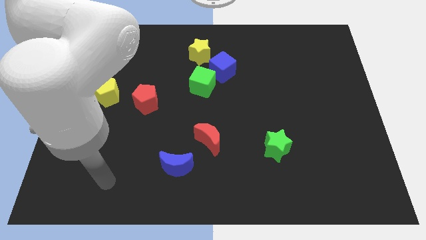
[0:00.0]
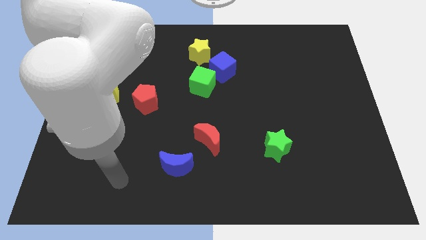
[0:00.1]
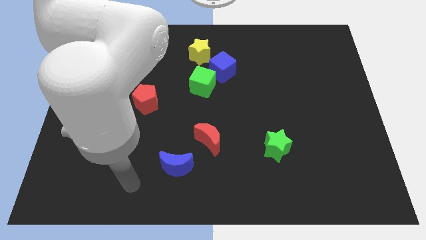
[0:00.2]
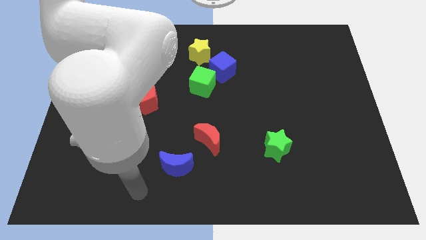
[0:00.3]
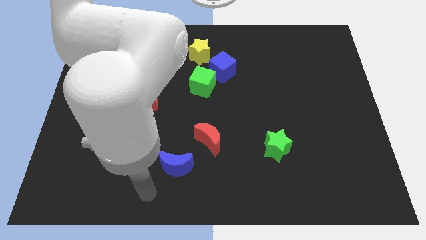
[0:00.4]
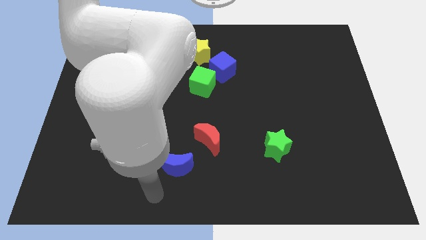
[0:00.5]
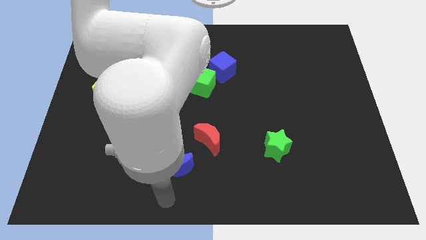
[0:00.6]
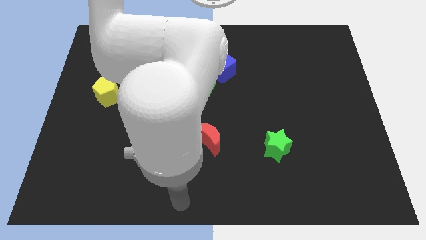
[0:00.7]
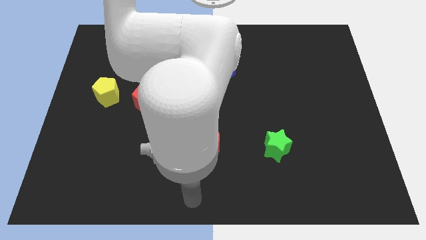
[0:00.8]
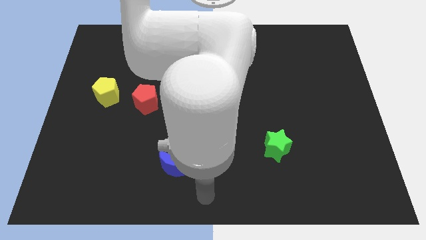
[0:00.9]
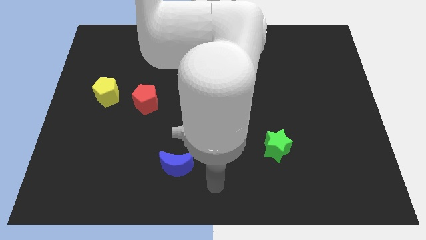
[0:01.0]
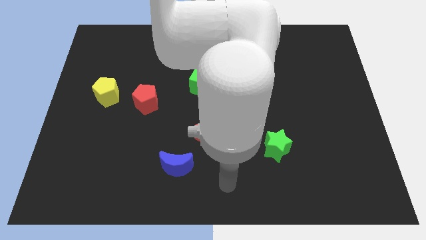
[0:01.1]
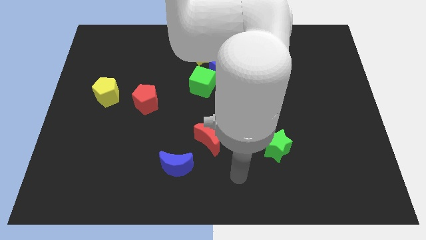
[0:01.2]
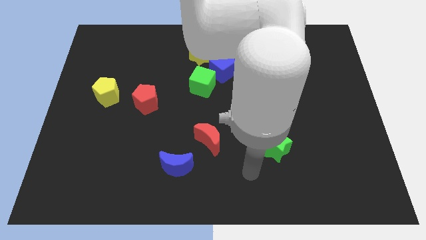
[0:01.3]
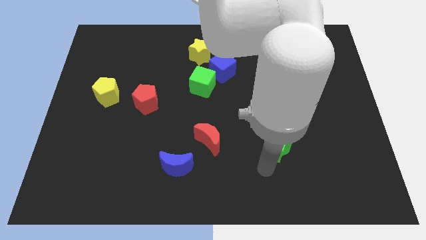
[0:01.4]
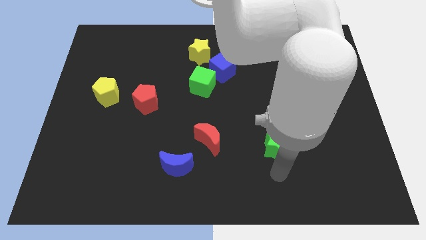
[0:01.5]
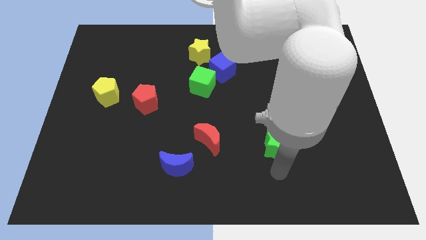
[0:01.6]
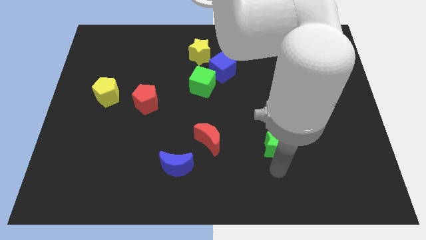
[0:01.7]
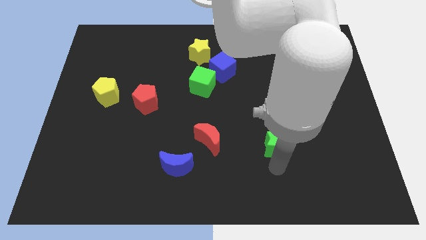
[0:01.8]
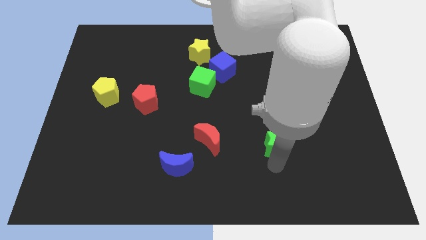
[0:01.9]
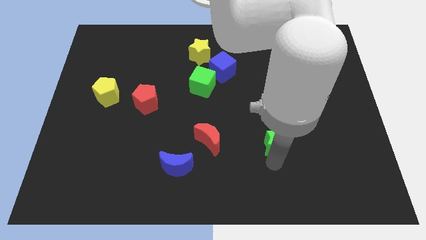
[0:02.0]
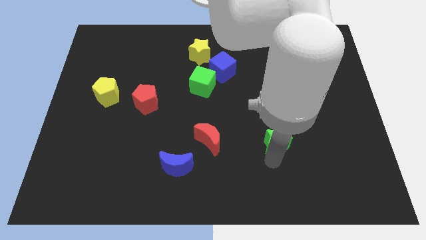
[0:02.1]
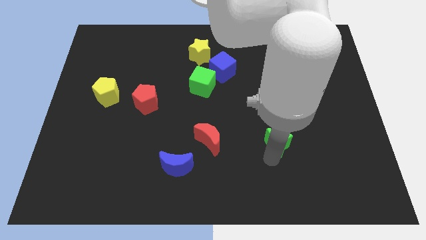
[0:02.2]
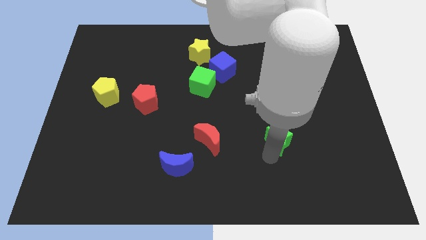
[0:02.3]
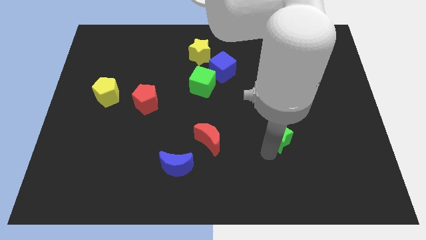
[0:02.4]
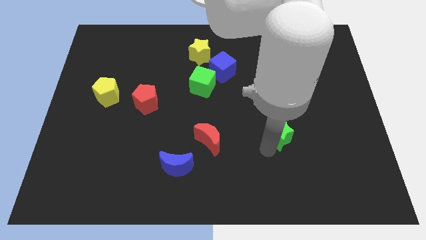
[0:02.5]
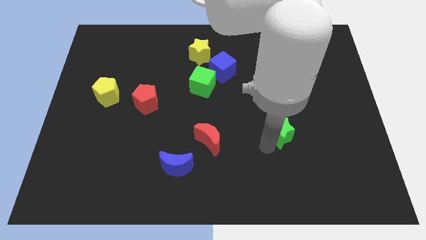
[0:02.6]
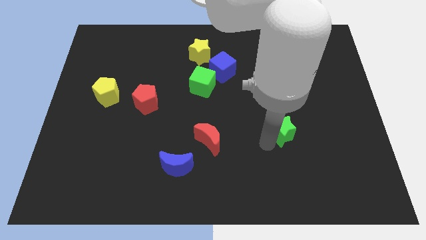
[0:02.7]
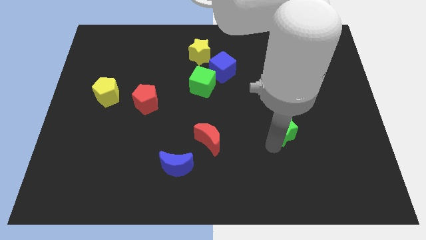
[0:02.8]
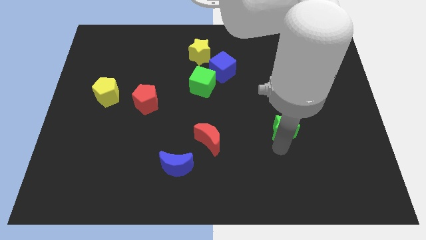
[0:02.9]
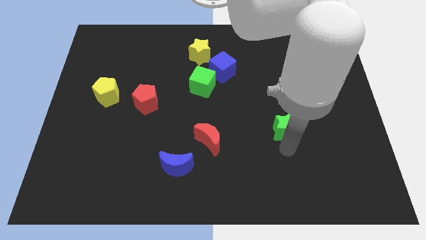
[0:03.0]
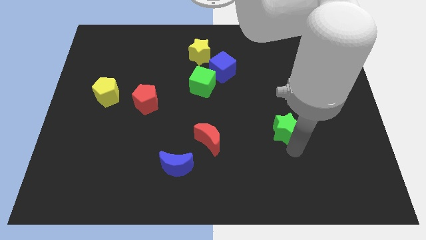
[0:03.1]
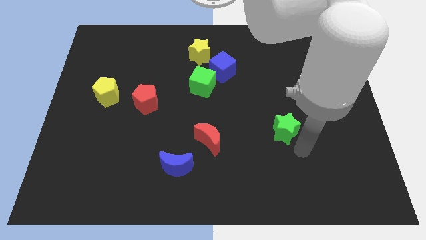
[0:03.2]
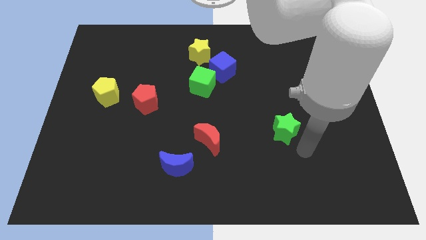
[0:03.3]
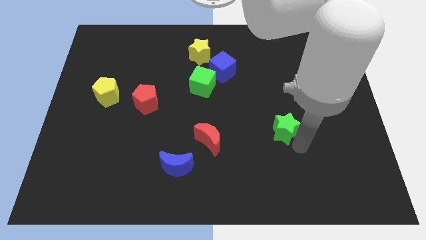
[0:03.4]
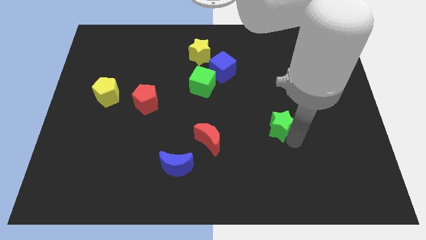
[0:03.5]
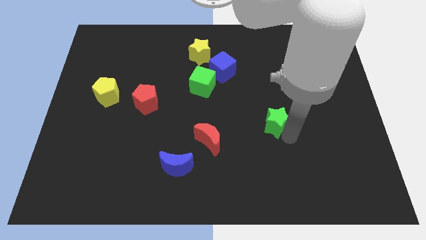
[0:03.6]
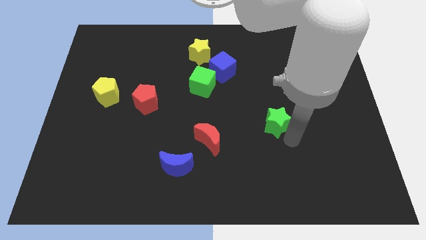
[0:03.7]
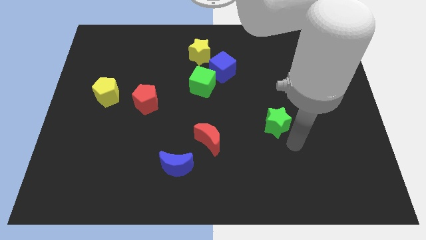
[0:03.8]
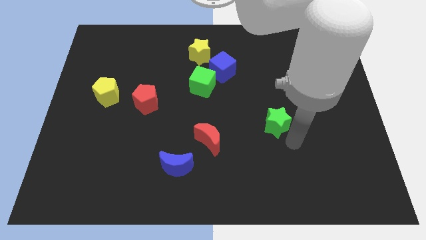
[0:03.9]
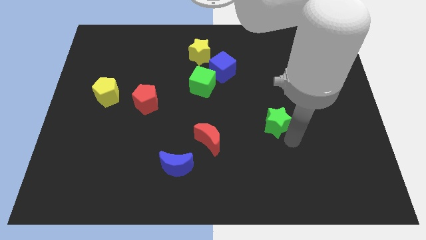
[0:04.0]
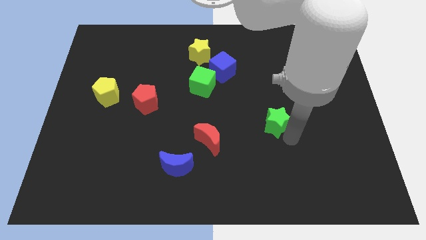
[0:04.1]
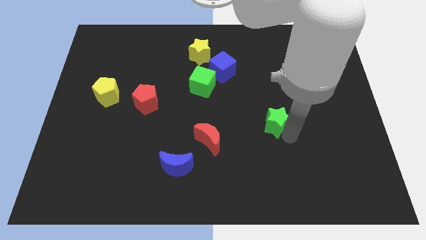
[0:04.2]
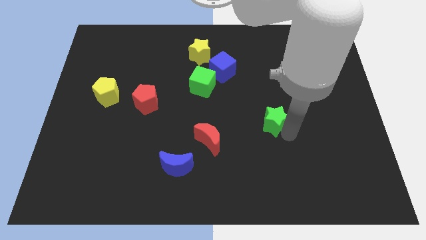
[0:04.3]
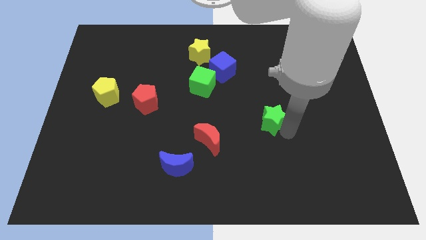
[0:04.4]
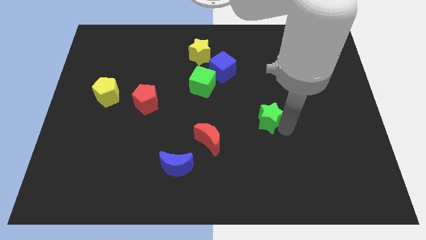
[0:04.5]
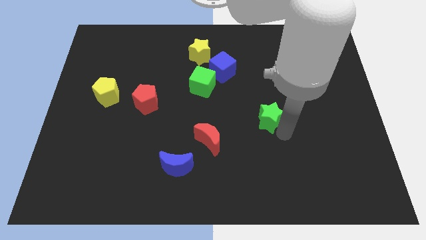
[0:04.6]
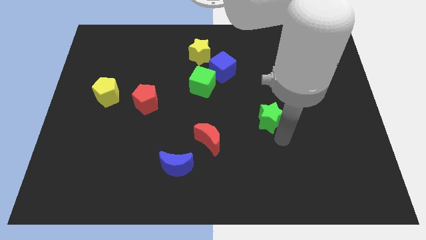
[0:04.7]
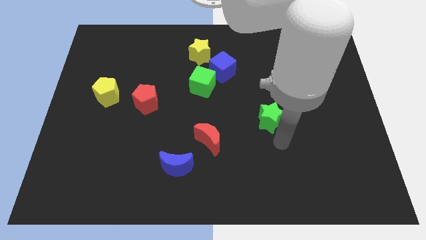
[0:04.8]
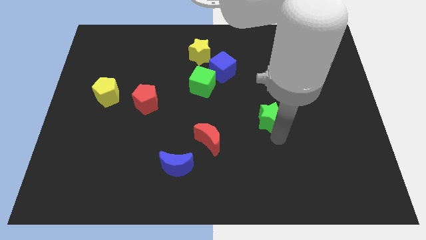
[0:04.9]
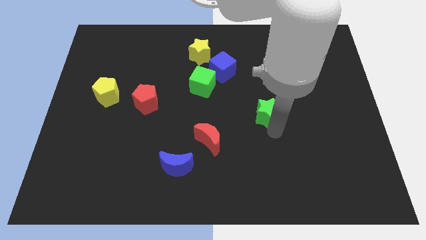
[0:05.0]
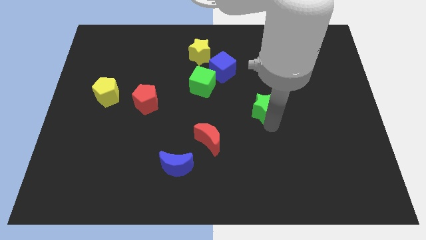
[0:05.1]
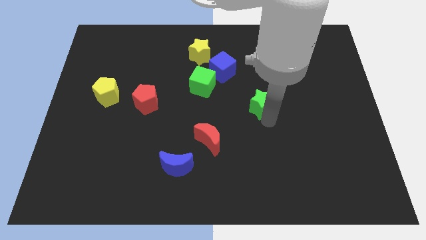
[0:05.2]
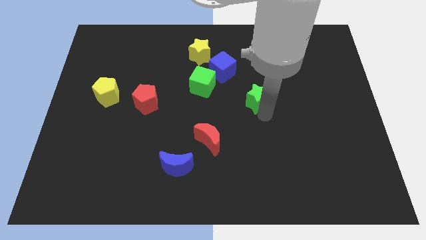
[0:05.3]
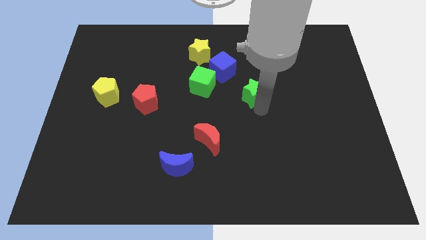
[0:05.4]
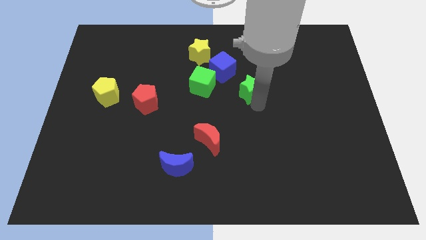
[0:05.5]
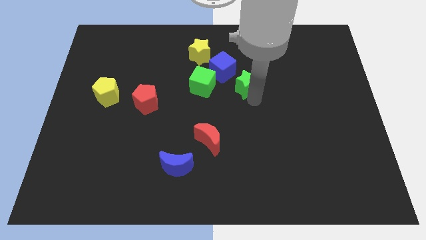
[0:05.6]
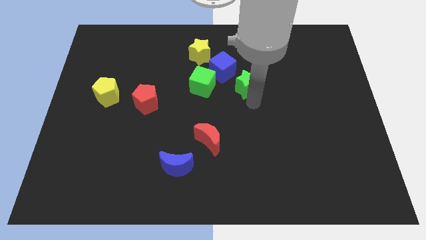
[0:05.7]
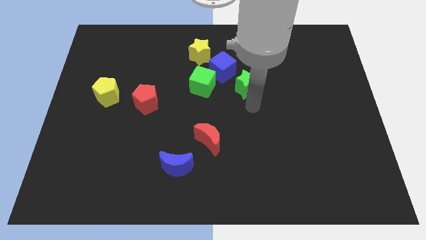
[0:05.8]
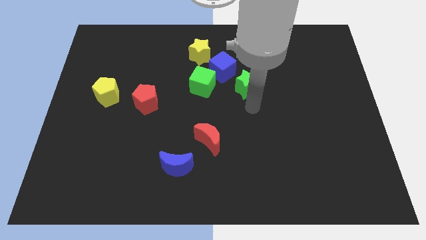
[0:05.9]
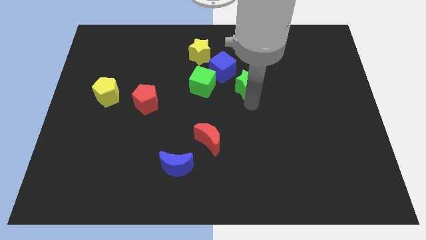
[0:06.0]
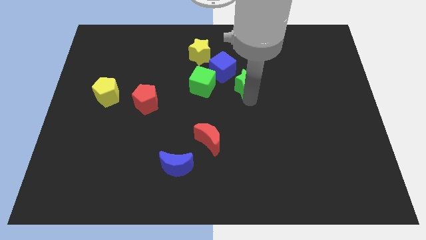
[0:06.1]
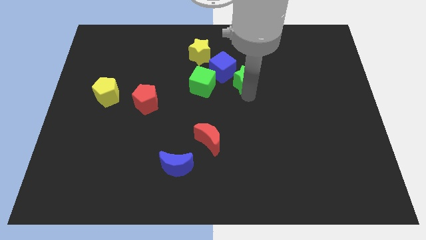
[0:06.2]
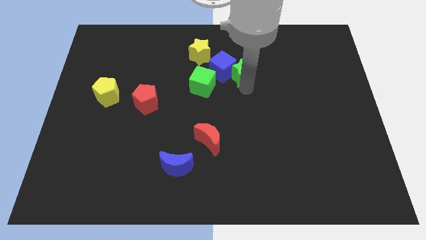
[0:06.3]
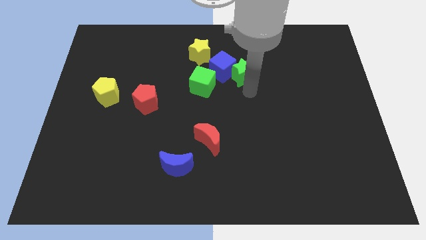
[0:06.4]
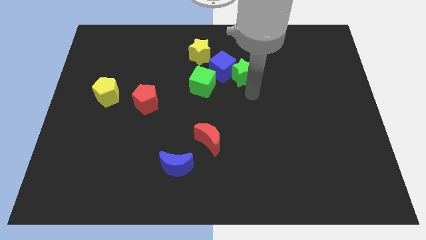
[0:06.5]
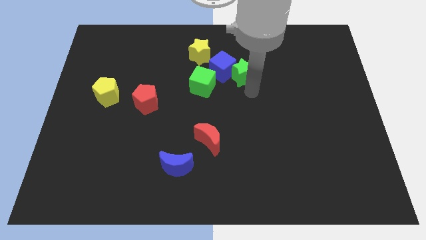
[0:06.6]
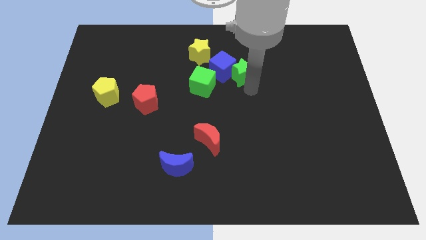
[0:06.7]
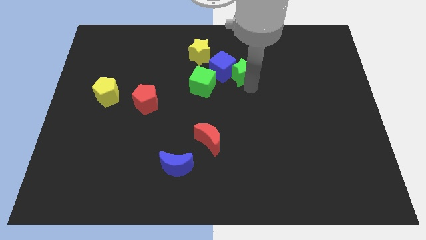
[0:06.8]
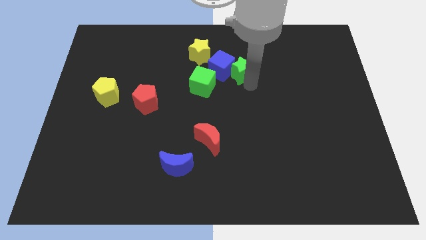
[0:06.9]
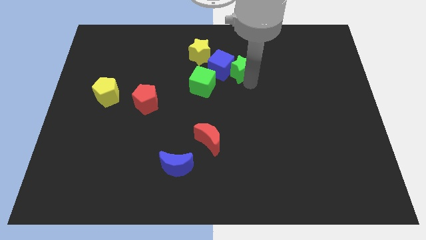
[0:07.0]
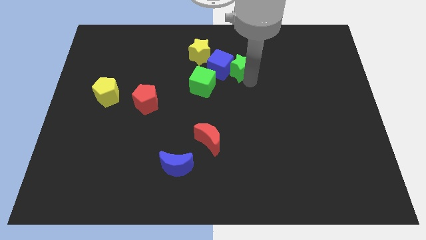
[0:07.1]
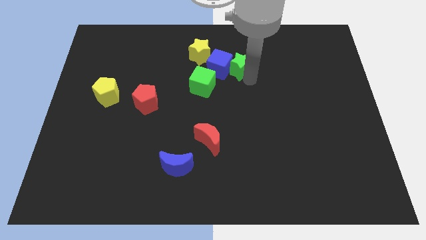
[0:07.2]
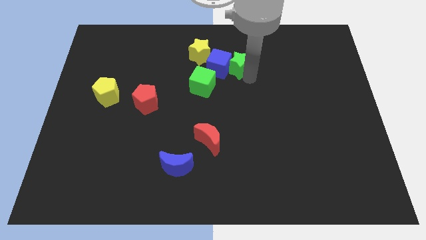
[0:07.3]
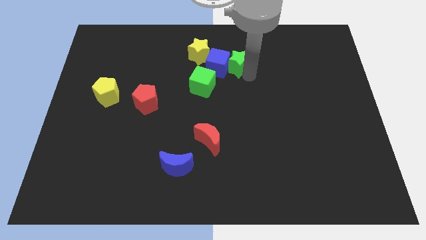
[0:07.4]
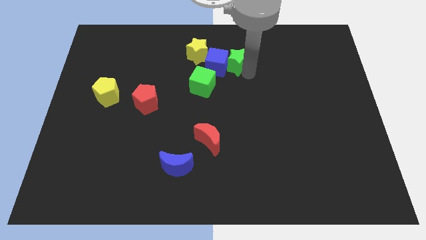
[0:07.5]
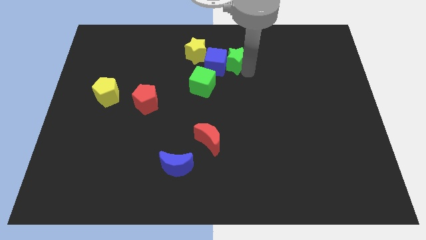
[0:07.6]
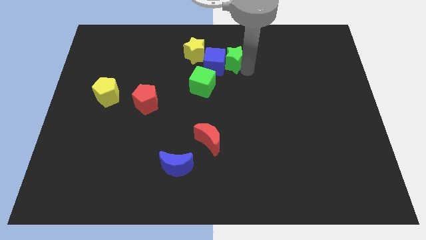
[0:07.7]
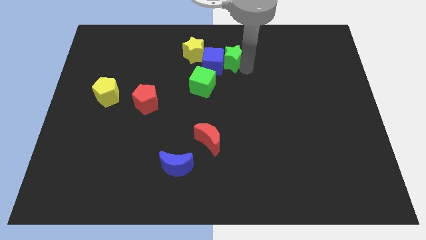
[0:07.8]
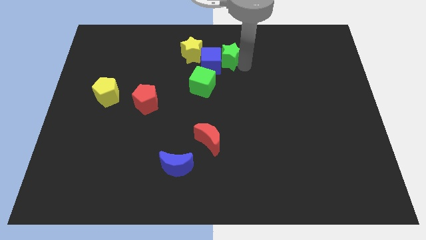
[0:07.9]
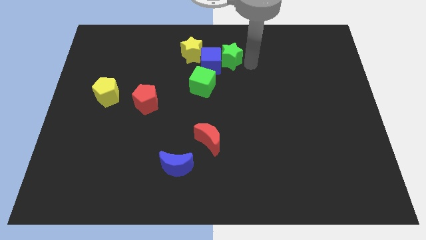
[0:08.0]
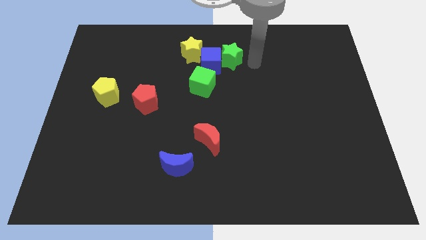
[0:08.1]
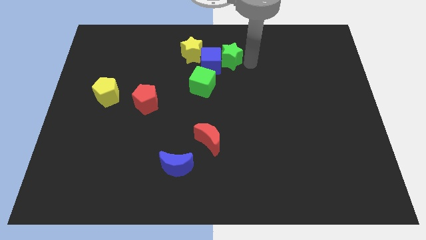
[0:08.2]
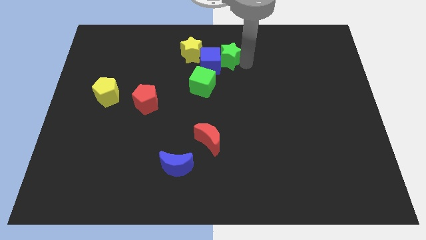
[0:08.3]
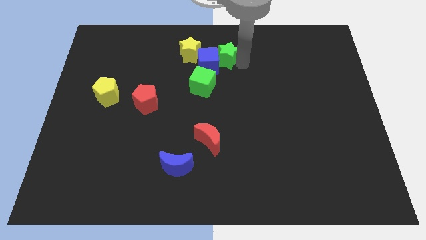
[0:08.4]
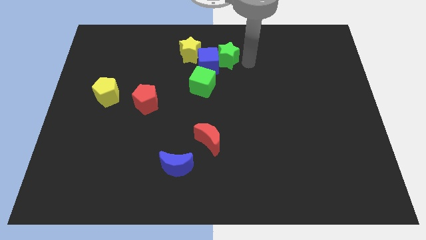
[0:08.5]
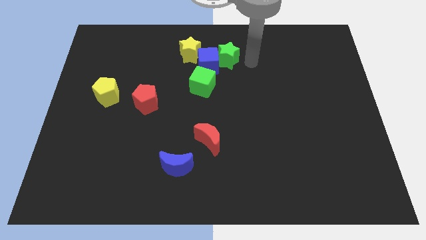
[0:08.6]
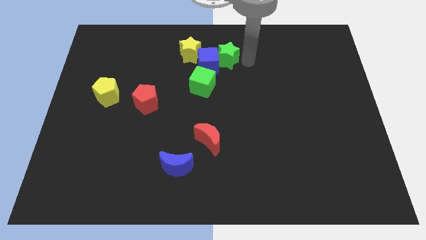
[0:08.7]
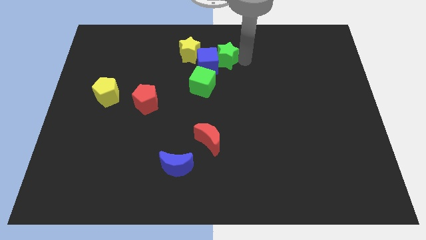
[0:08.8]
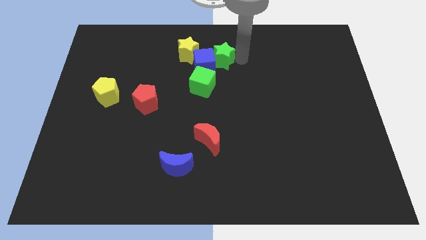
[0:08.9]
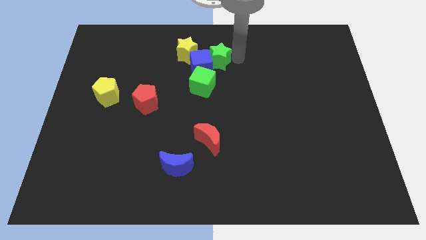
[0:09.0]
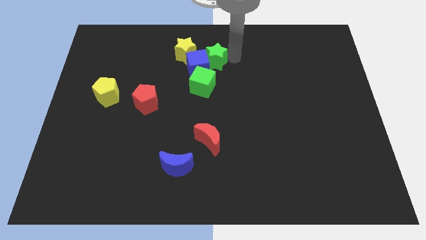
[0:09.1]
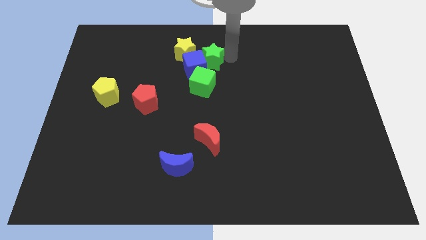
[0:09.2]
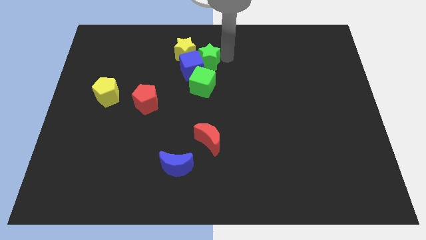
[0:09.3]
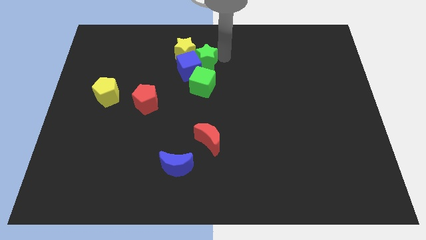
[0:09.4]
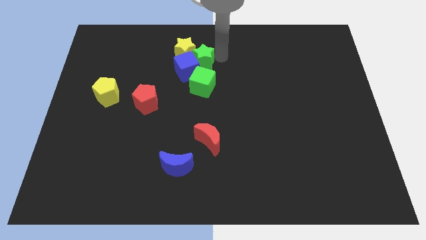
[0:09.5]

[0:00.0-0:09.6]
slide the green star towards the yellow star
